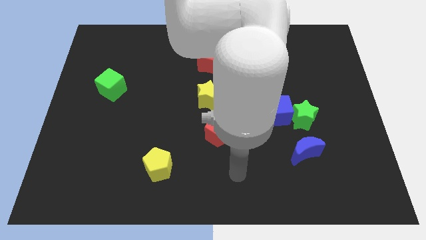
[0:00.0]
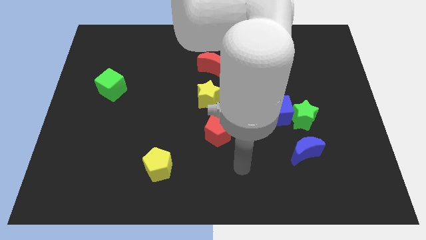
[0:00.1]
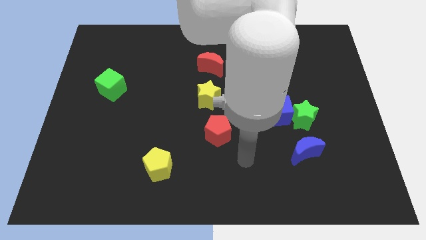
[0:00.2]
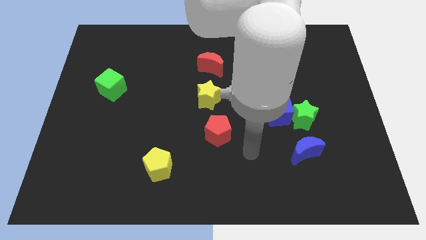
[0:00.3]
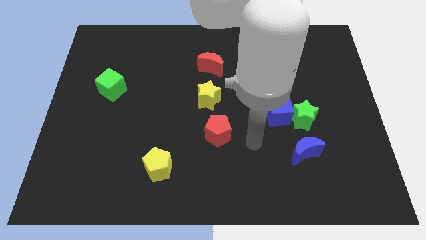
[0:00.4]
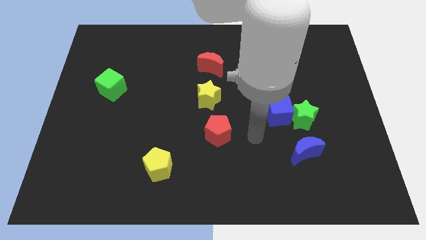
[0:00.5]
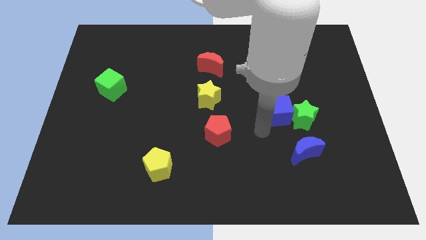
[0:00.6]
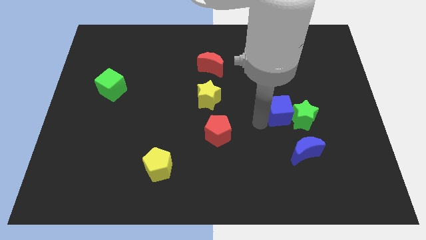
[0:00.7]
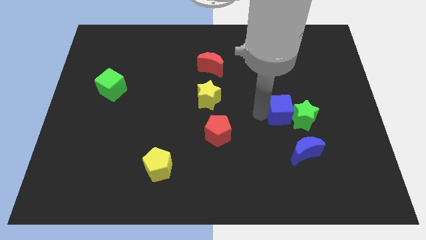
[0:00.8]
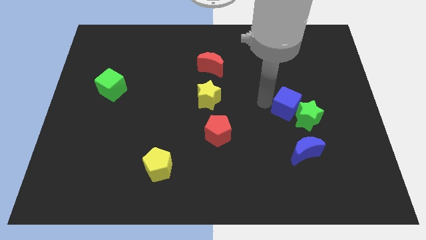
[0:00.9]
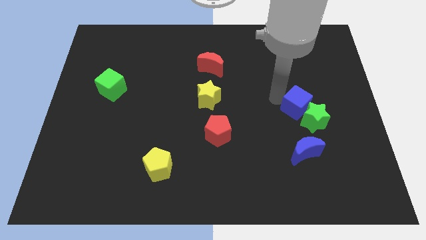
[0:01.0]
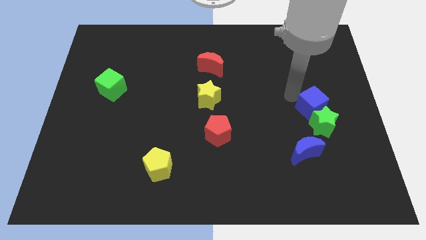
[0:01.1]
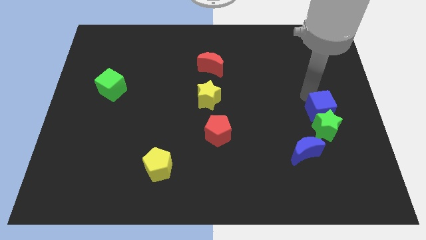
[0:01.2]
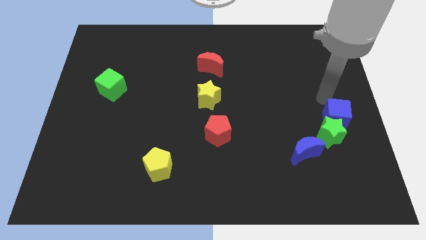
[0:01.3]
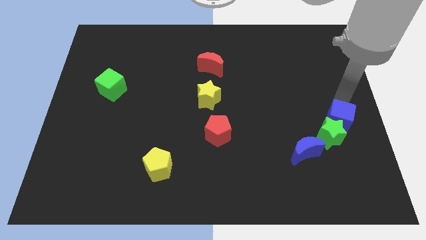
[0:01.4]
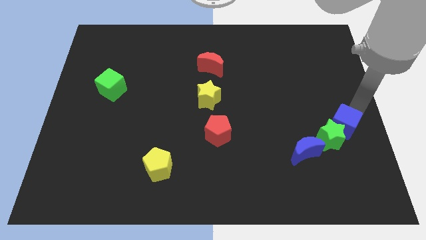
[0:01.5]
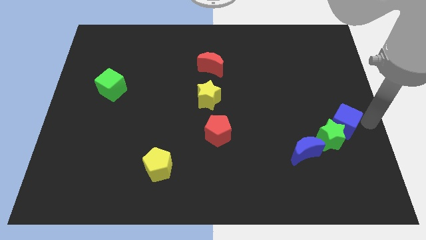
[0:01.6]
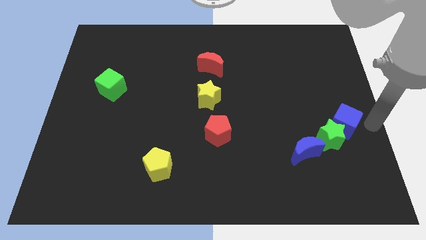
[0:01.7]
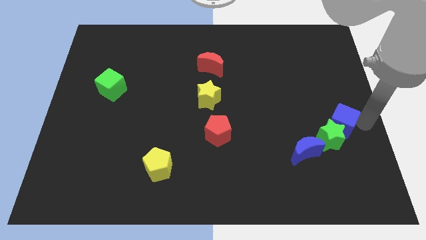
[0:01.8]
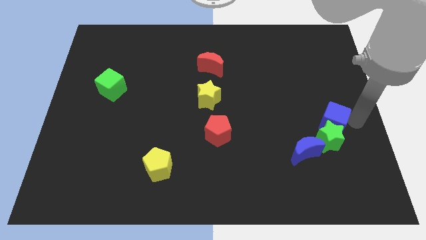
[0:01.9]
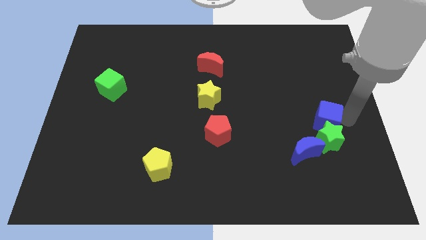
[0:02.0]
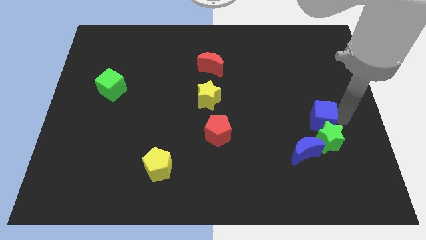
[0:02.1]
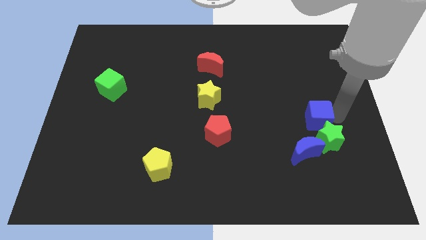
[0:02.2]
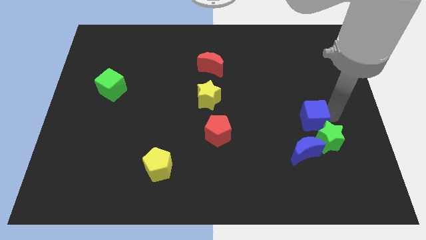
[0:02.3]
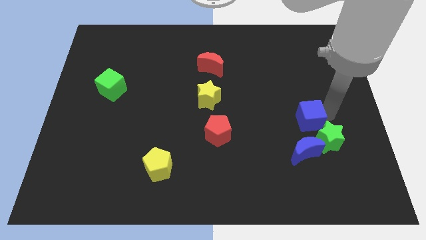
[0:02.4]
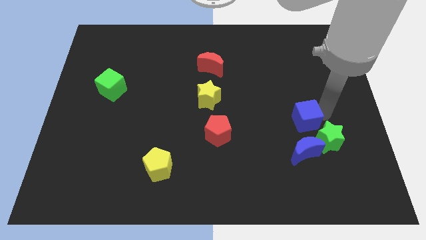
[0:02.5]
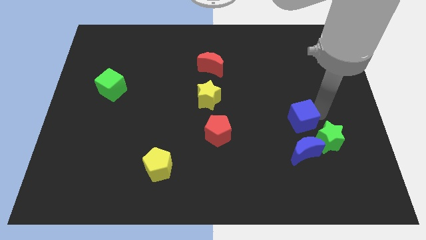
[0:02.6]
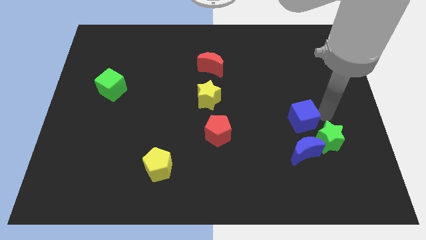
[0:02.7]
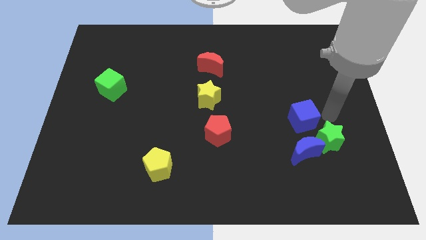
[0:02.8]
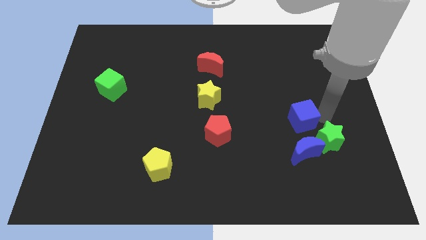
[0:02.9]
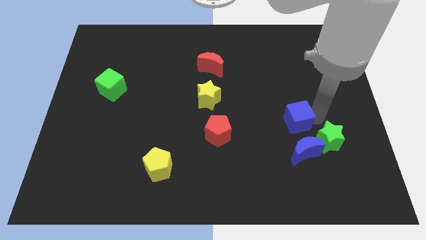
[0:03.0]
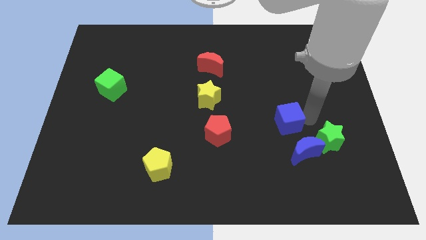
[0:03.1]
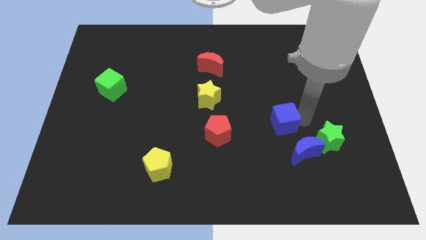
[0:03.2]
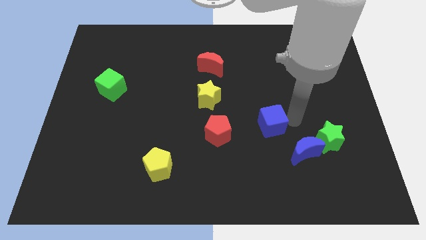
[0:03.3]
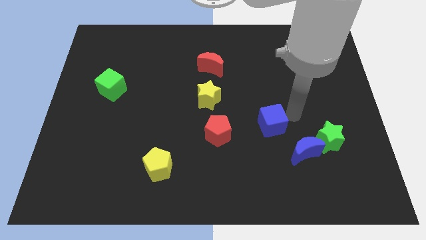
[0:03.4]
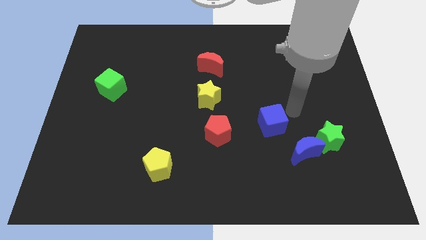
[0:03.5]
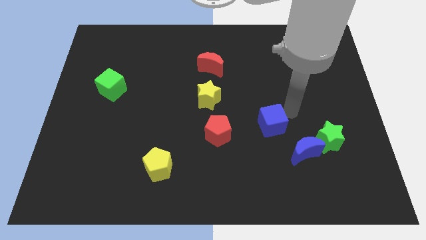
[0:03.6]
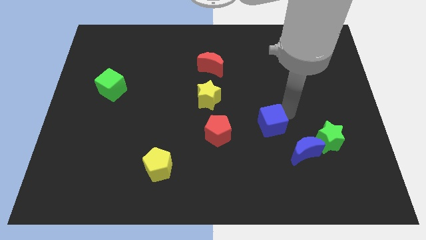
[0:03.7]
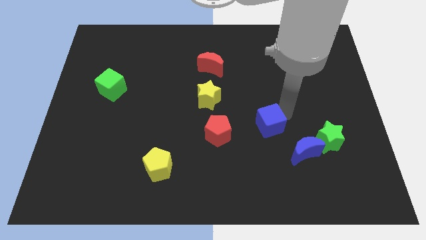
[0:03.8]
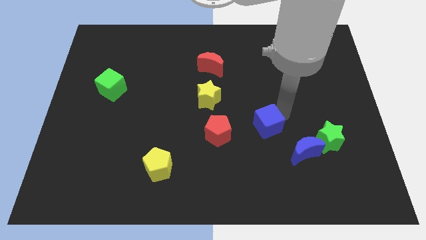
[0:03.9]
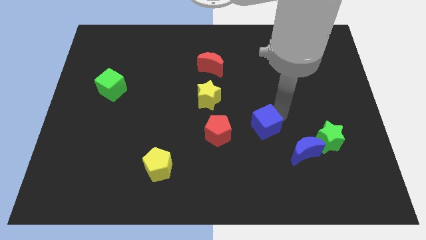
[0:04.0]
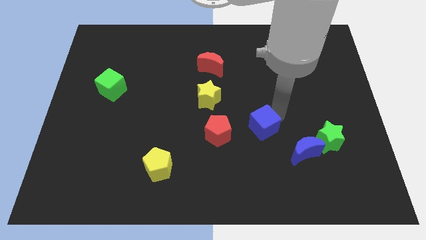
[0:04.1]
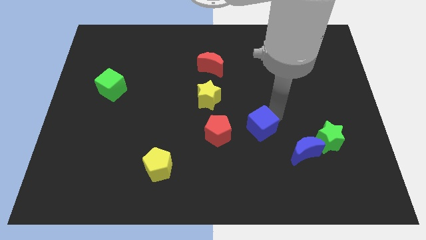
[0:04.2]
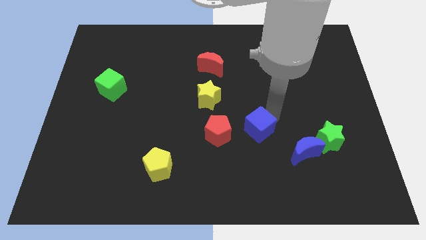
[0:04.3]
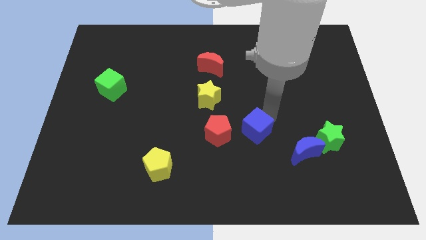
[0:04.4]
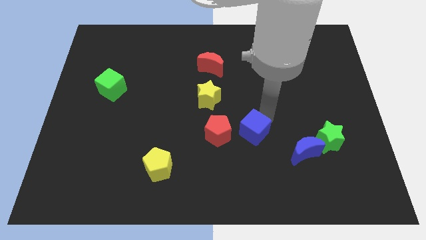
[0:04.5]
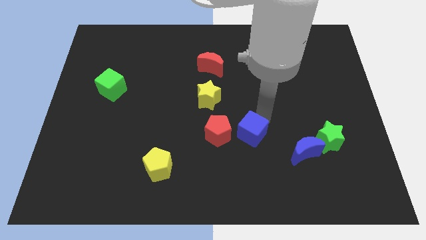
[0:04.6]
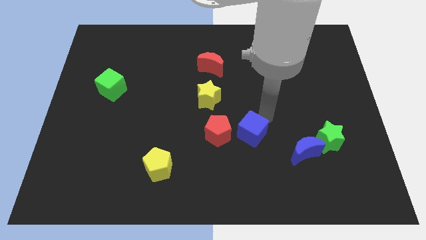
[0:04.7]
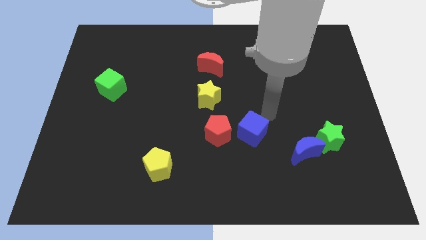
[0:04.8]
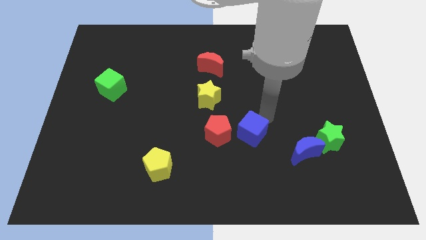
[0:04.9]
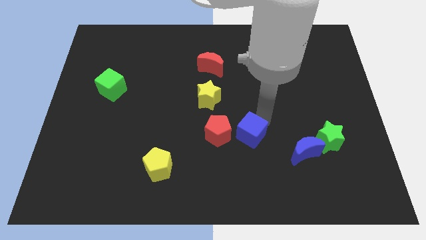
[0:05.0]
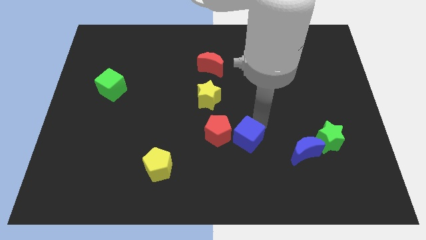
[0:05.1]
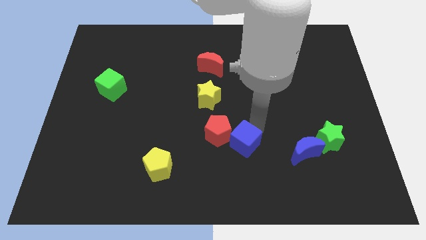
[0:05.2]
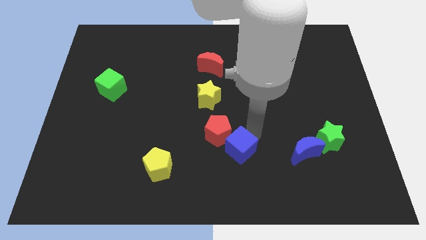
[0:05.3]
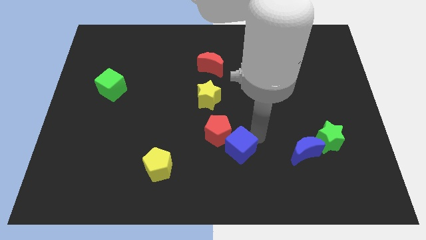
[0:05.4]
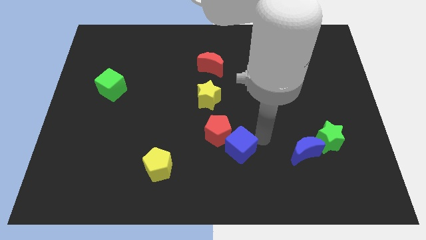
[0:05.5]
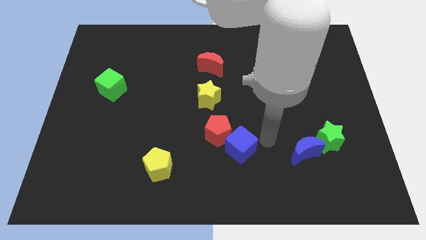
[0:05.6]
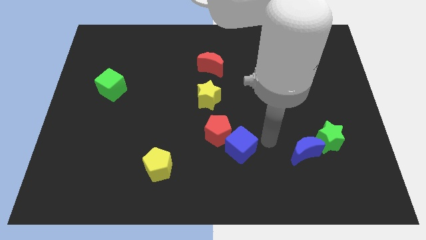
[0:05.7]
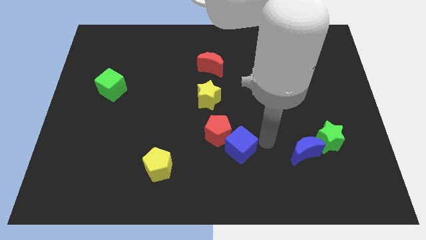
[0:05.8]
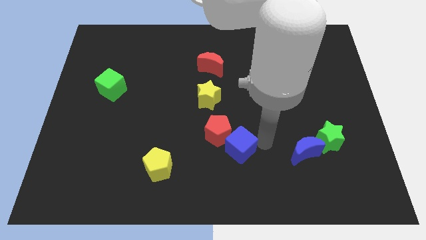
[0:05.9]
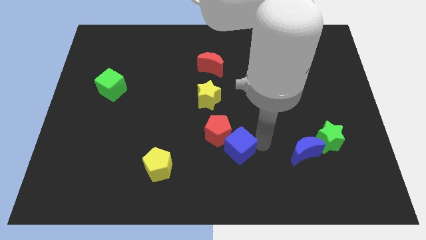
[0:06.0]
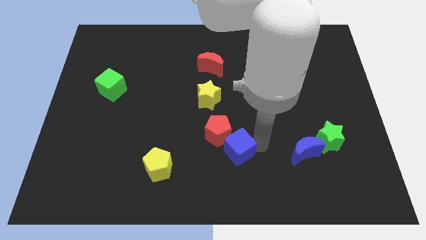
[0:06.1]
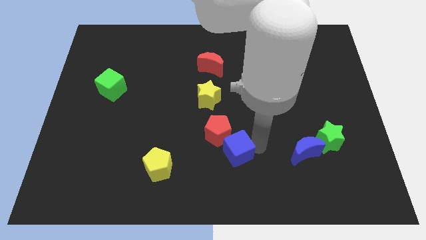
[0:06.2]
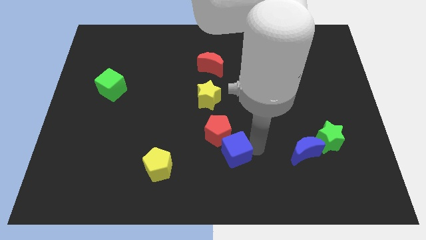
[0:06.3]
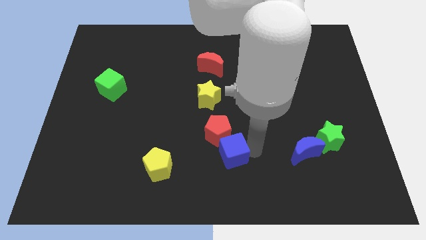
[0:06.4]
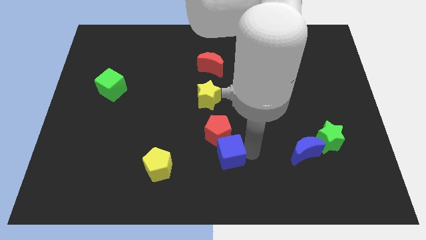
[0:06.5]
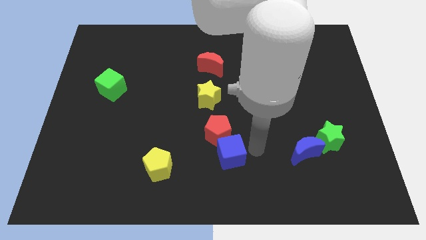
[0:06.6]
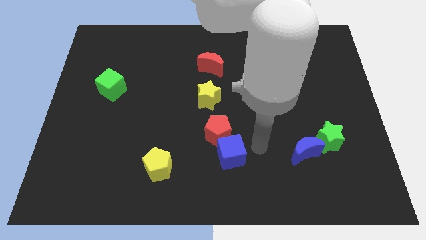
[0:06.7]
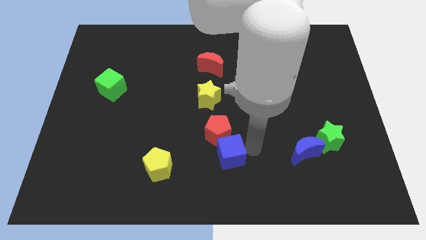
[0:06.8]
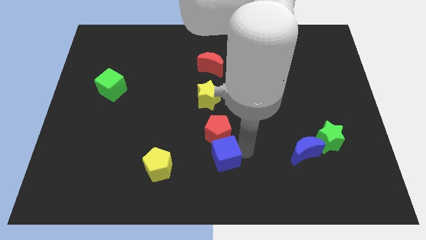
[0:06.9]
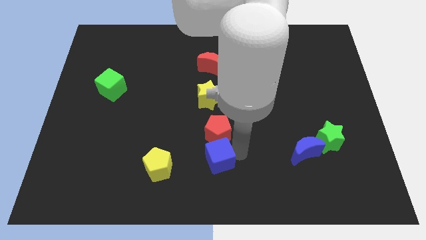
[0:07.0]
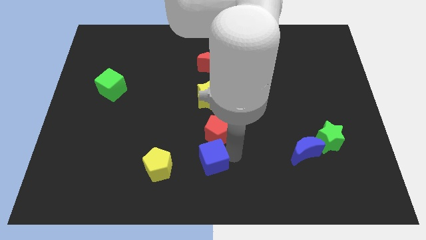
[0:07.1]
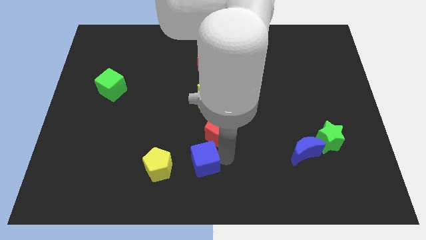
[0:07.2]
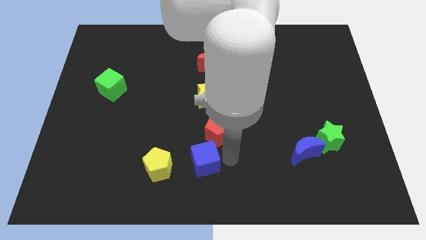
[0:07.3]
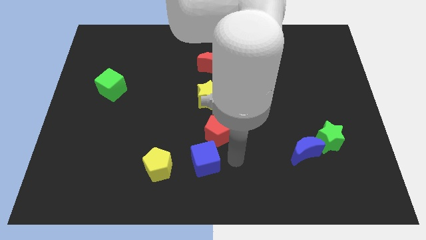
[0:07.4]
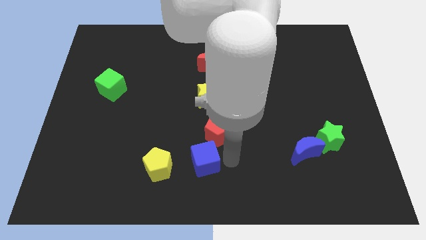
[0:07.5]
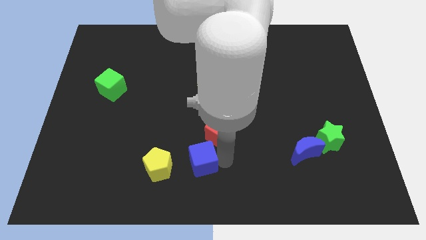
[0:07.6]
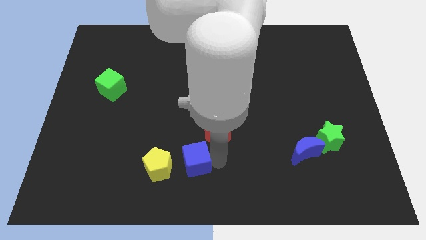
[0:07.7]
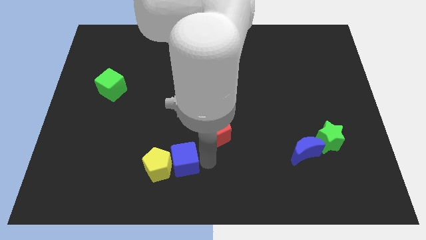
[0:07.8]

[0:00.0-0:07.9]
push the blue cube to the yellow pentagon
